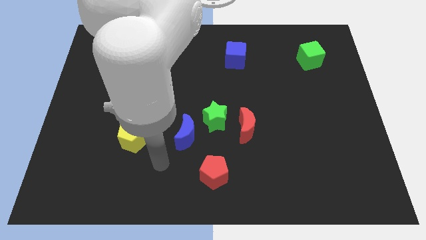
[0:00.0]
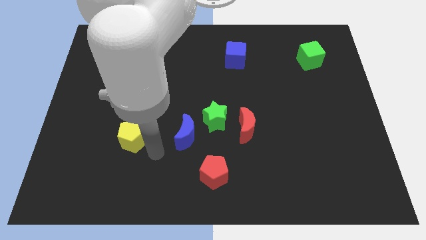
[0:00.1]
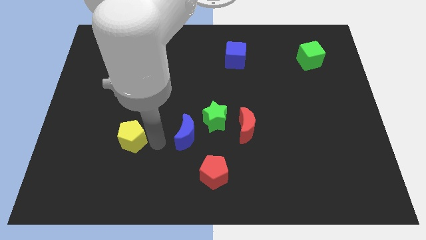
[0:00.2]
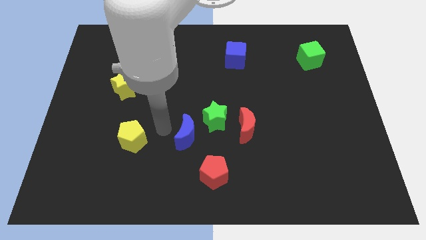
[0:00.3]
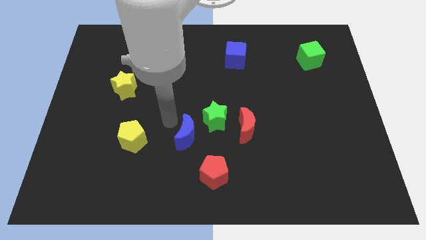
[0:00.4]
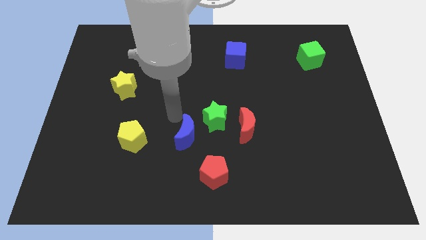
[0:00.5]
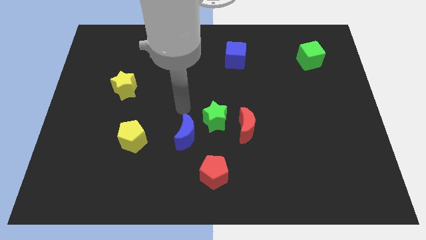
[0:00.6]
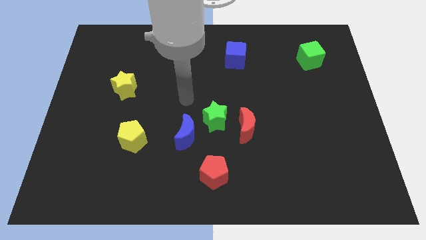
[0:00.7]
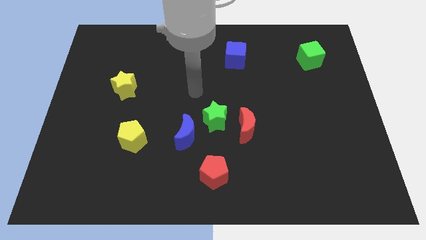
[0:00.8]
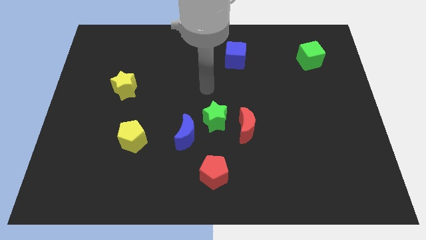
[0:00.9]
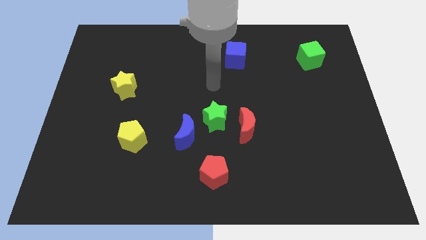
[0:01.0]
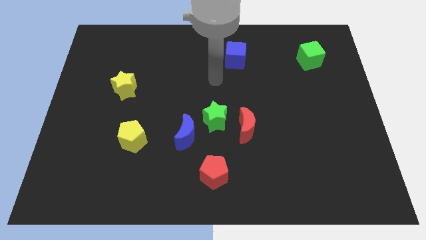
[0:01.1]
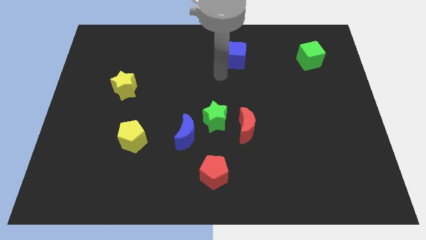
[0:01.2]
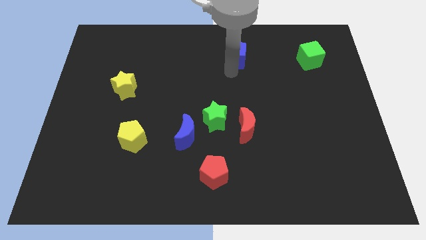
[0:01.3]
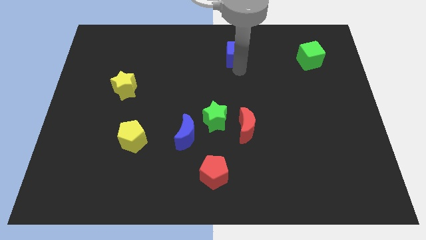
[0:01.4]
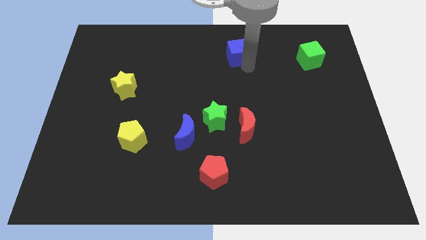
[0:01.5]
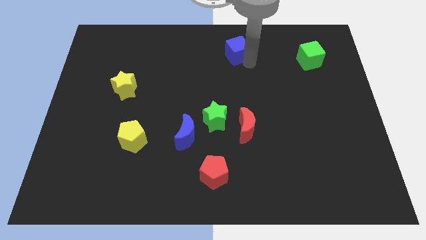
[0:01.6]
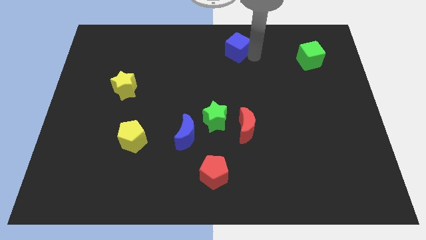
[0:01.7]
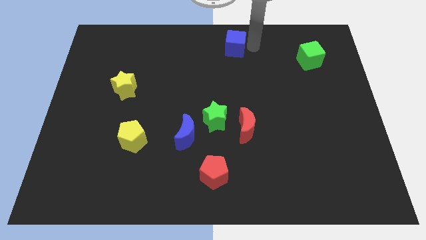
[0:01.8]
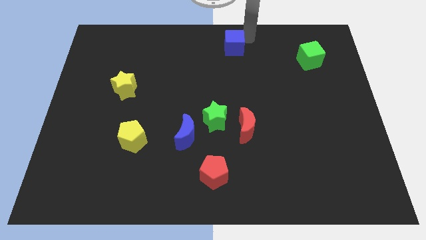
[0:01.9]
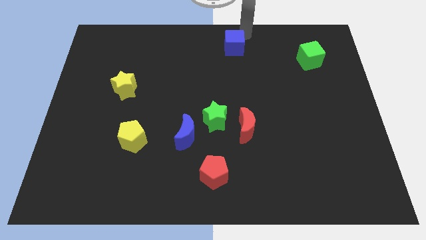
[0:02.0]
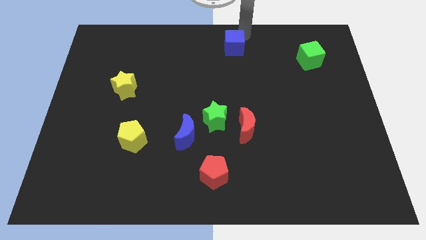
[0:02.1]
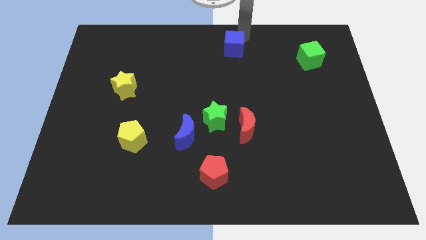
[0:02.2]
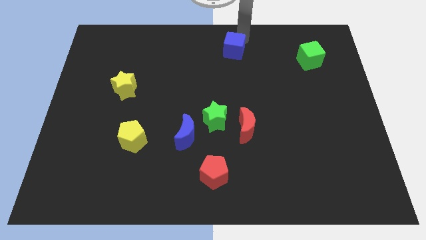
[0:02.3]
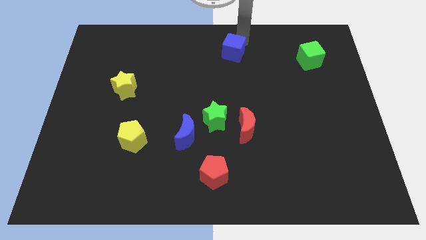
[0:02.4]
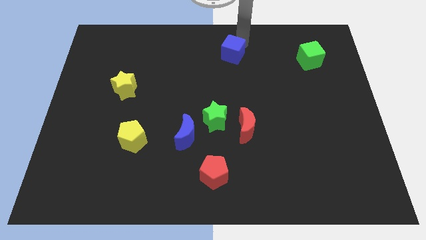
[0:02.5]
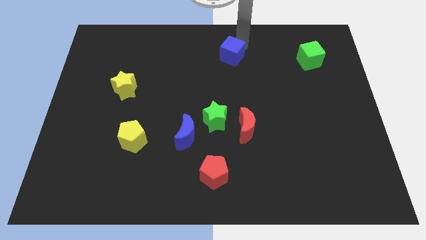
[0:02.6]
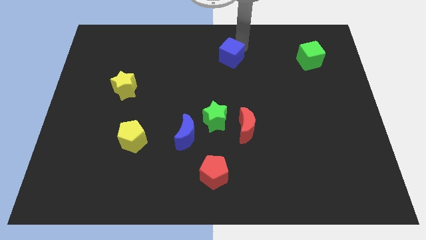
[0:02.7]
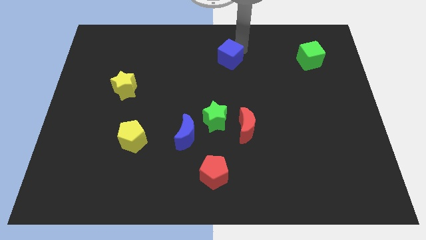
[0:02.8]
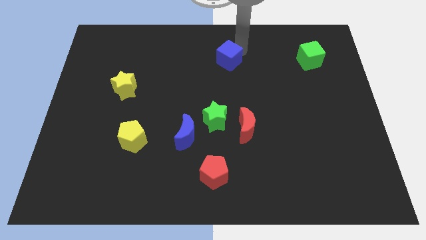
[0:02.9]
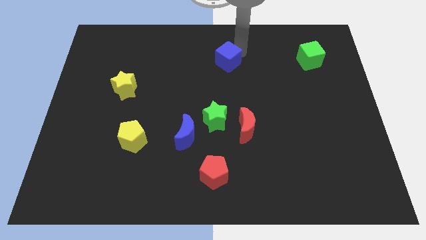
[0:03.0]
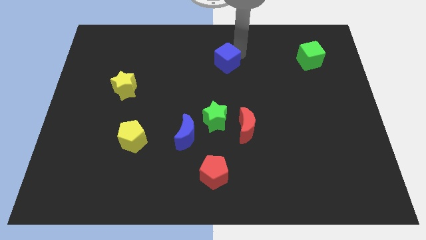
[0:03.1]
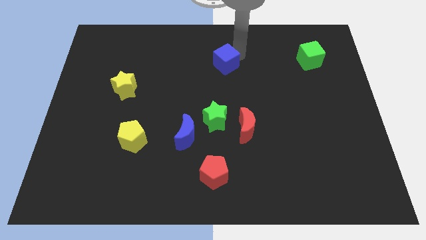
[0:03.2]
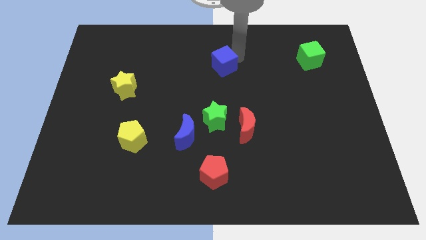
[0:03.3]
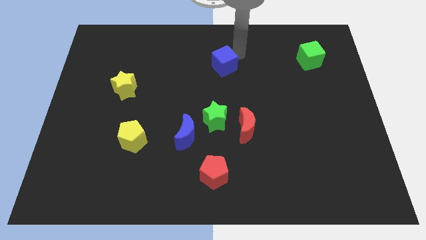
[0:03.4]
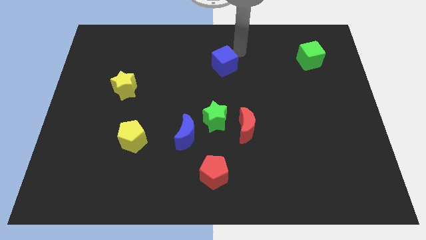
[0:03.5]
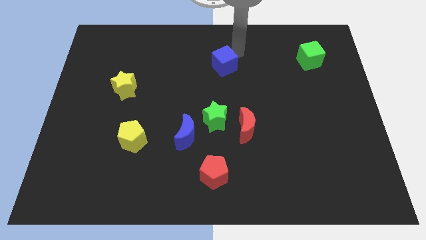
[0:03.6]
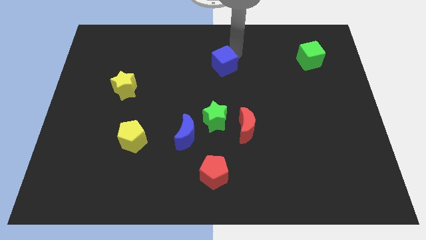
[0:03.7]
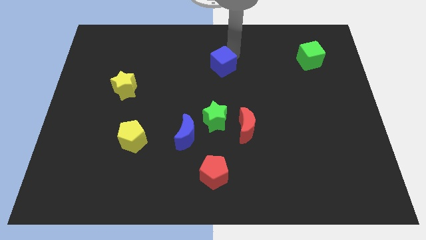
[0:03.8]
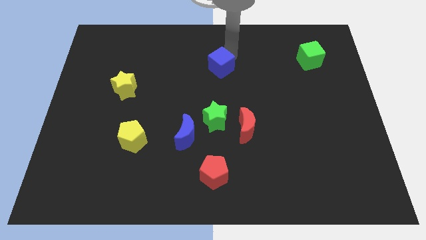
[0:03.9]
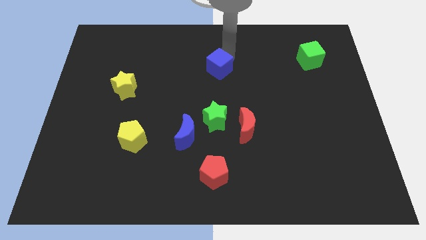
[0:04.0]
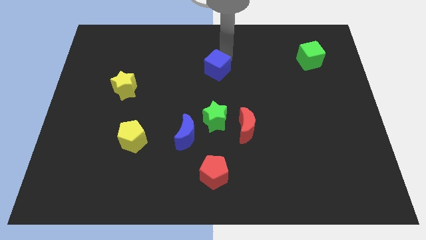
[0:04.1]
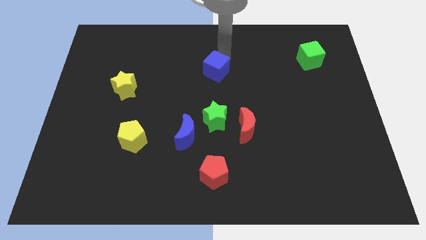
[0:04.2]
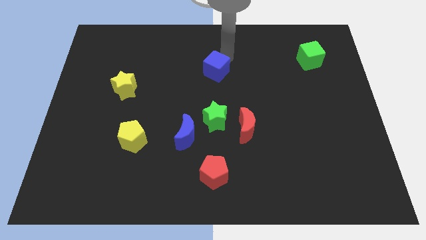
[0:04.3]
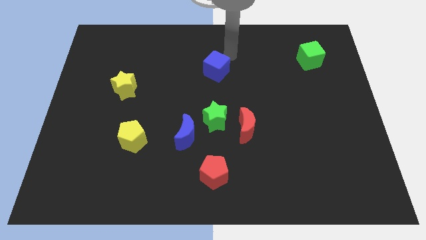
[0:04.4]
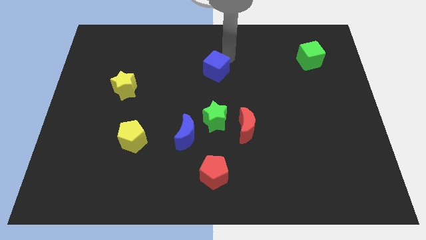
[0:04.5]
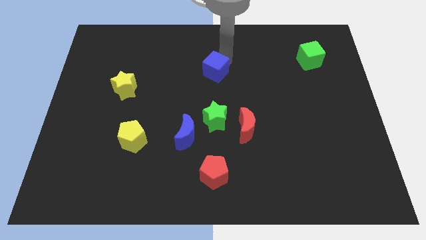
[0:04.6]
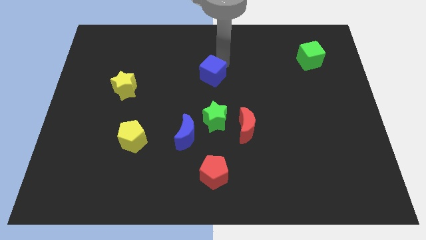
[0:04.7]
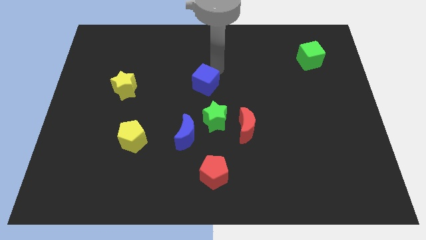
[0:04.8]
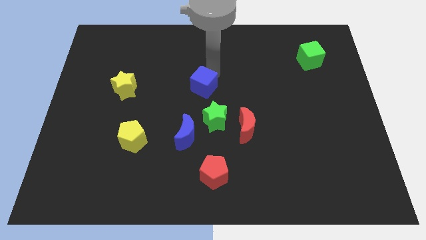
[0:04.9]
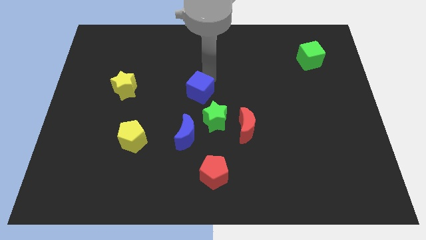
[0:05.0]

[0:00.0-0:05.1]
push the blue cube diagonally up and to the left of the green star

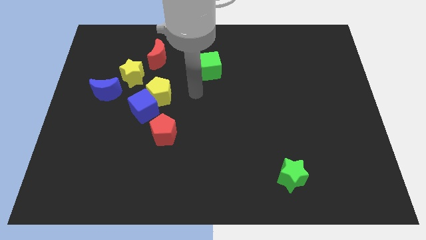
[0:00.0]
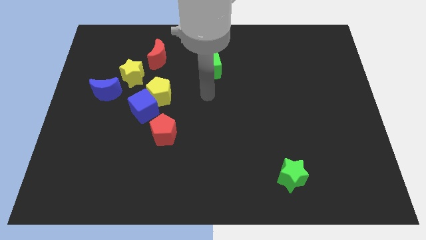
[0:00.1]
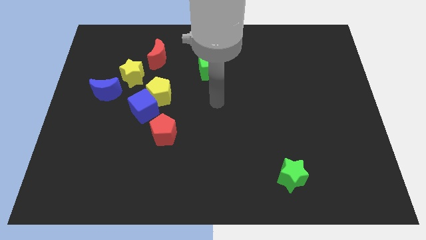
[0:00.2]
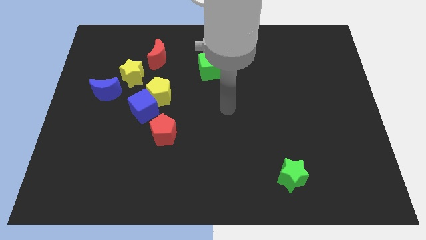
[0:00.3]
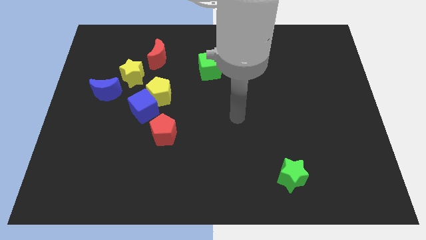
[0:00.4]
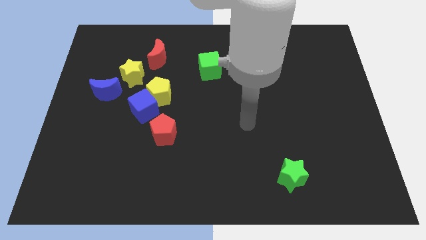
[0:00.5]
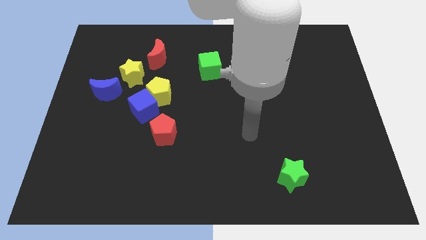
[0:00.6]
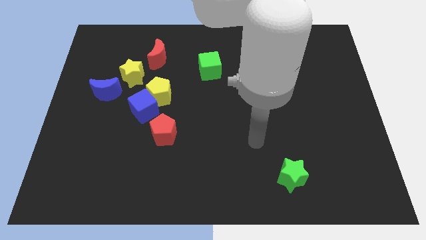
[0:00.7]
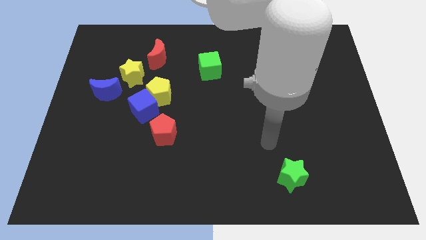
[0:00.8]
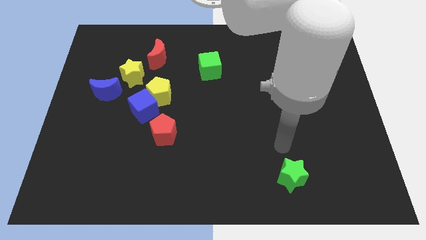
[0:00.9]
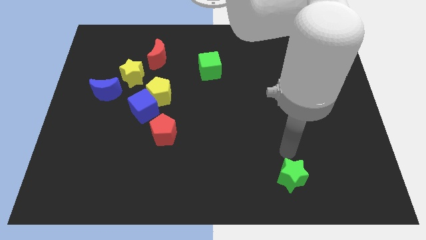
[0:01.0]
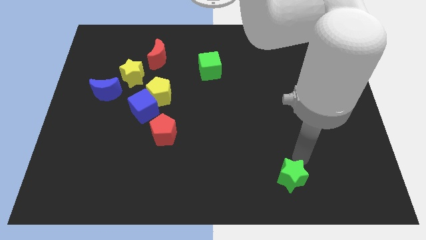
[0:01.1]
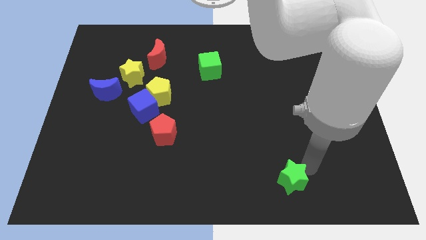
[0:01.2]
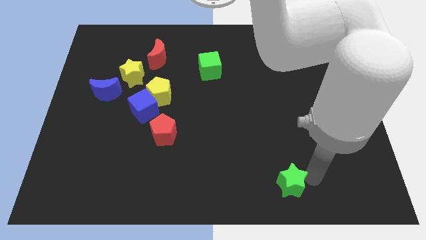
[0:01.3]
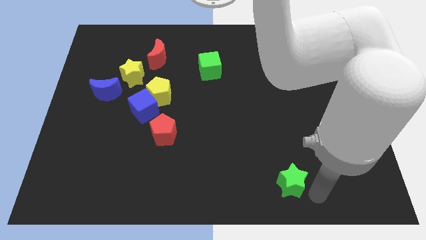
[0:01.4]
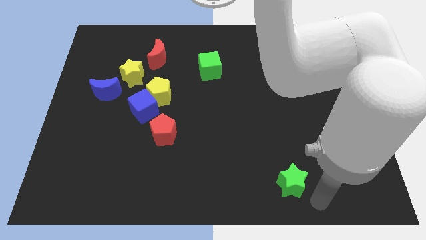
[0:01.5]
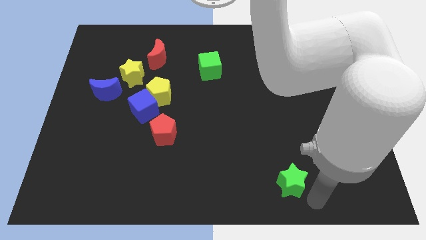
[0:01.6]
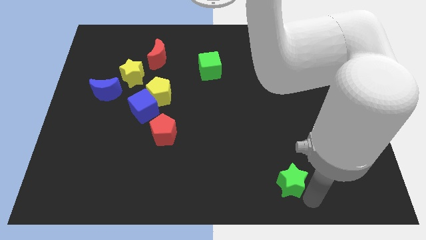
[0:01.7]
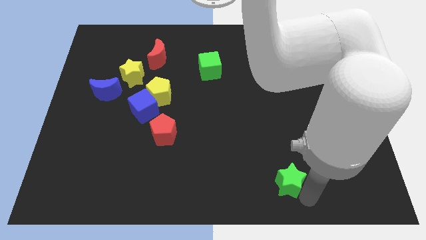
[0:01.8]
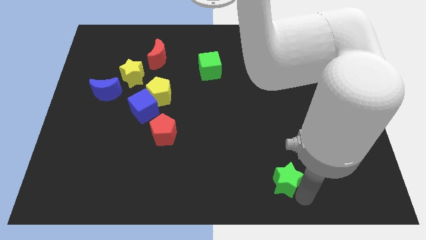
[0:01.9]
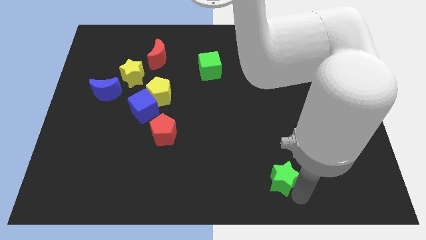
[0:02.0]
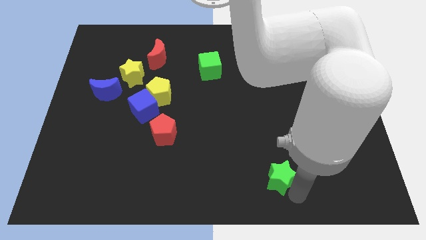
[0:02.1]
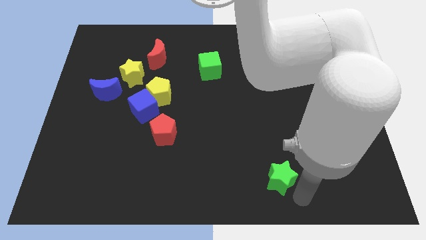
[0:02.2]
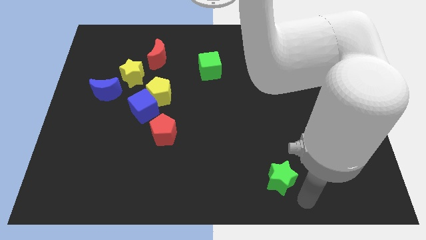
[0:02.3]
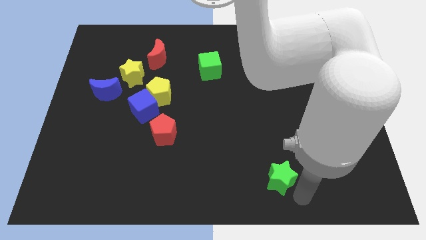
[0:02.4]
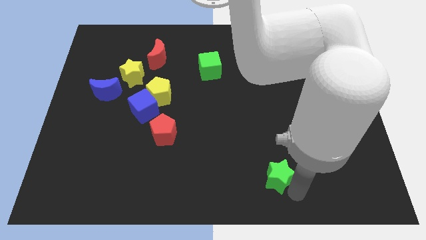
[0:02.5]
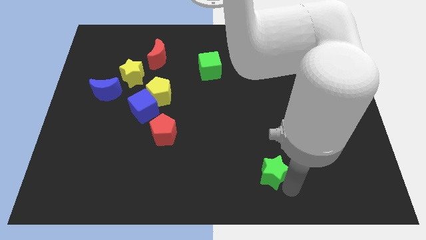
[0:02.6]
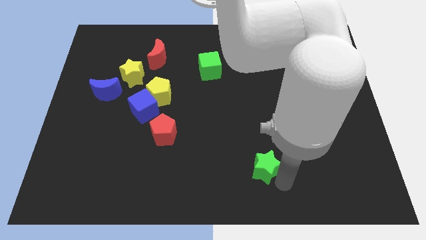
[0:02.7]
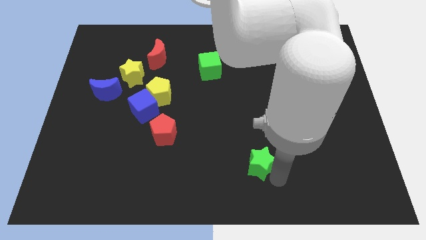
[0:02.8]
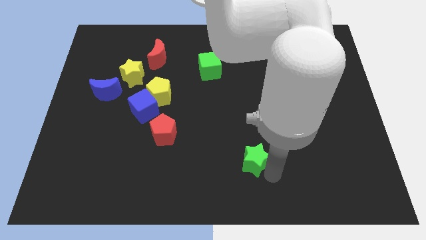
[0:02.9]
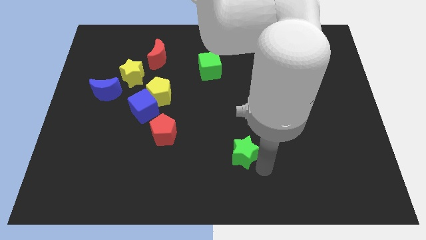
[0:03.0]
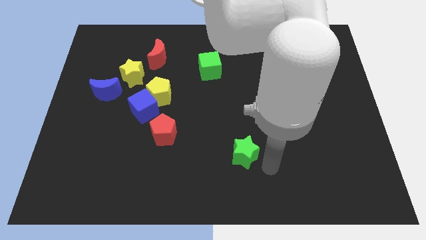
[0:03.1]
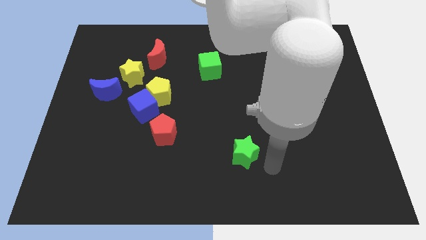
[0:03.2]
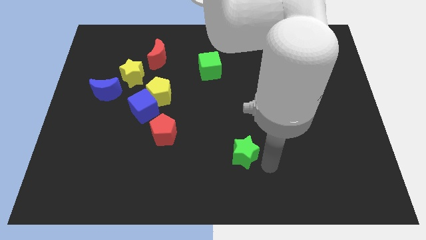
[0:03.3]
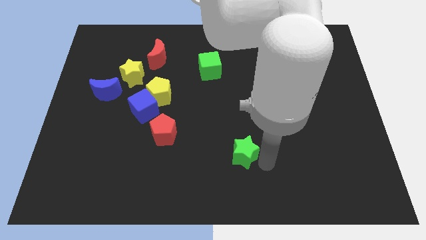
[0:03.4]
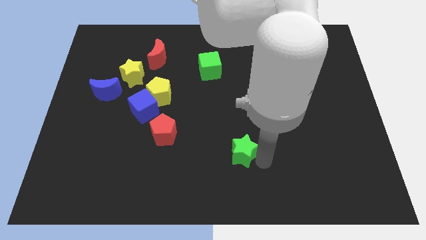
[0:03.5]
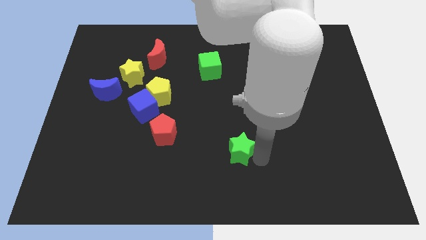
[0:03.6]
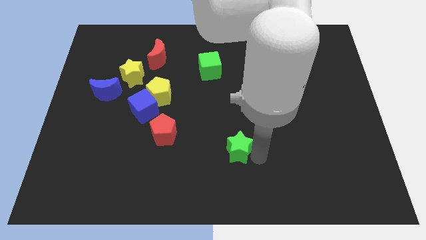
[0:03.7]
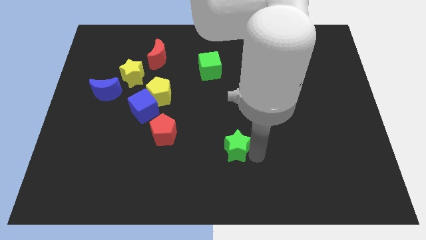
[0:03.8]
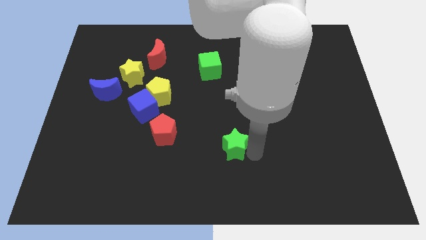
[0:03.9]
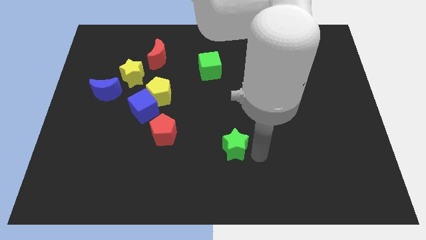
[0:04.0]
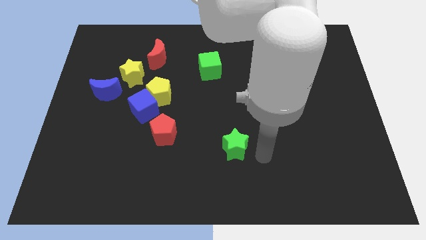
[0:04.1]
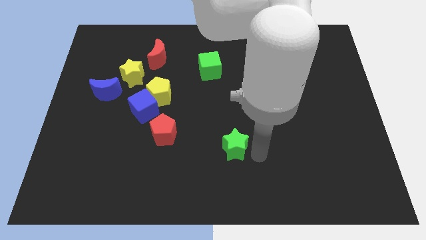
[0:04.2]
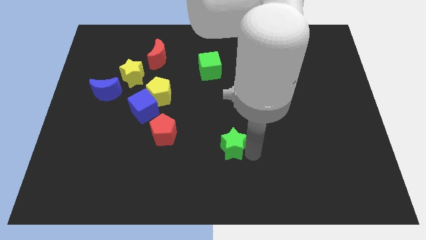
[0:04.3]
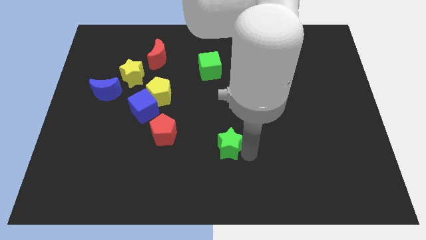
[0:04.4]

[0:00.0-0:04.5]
put the green star to the right of the red pentagon
